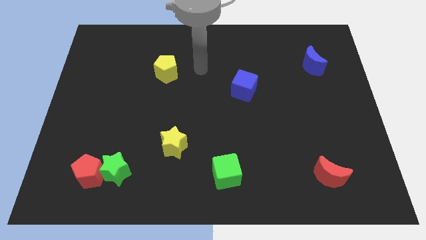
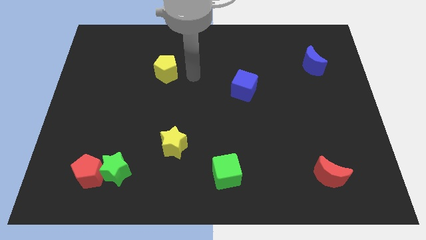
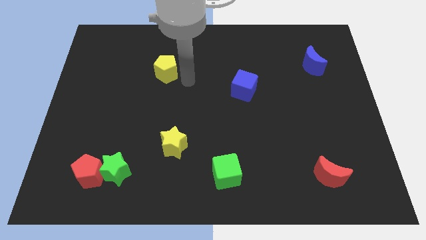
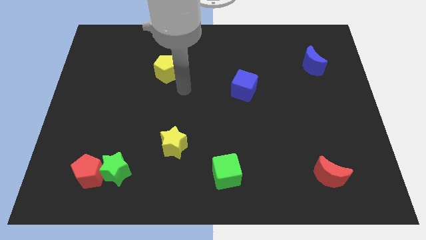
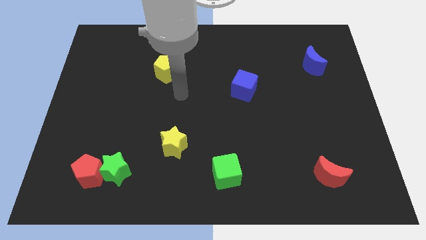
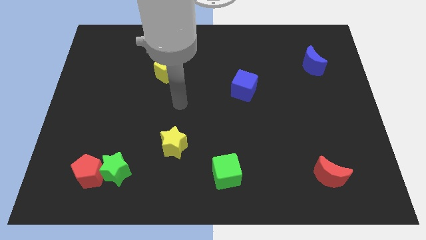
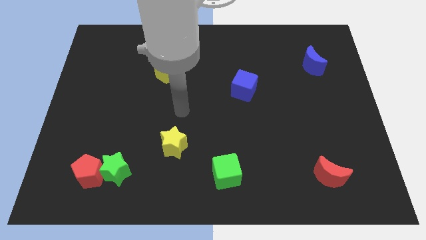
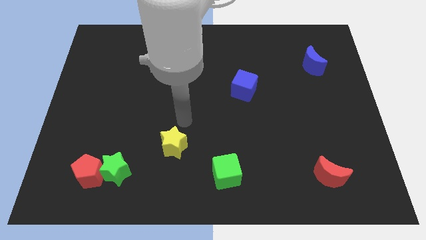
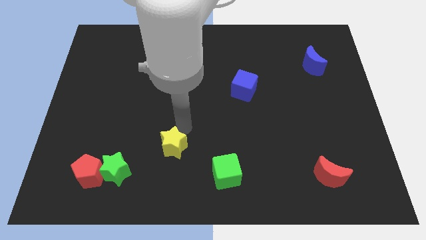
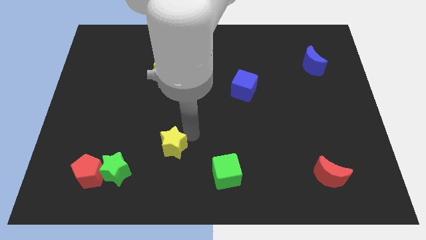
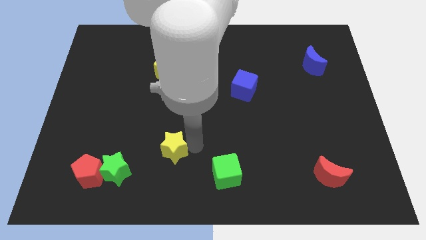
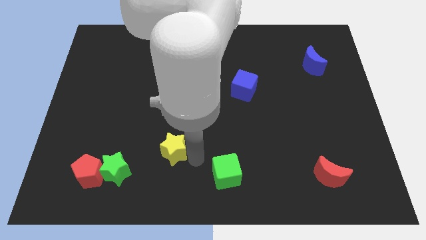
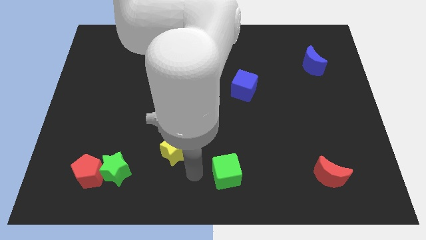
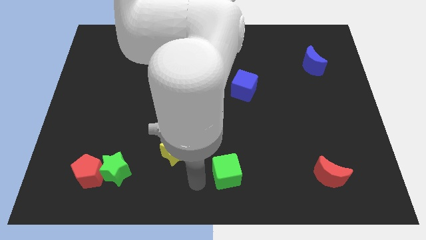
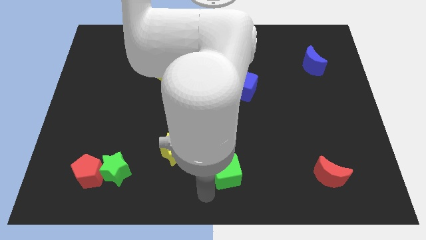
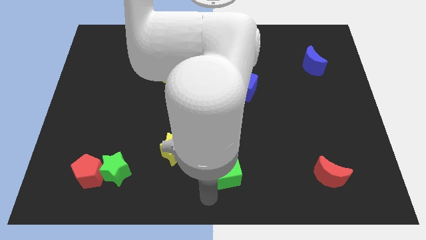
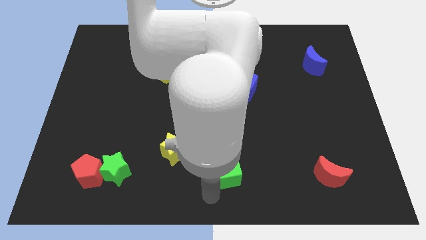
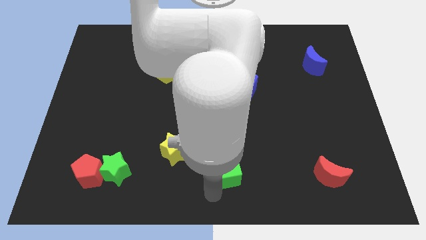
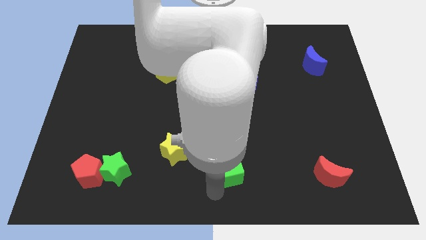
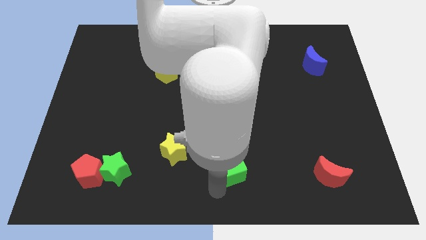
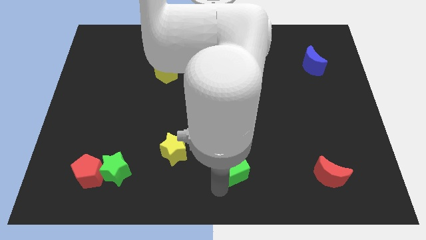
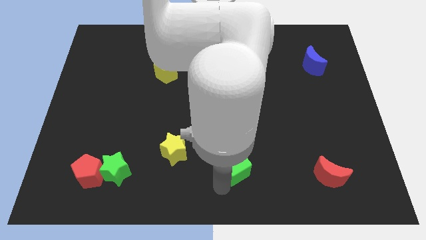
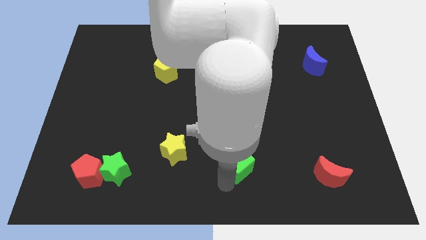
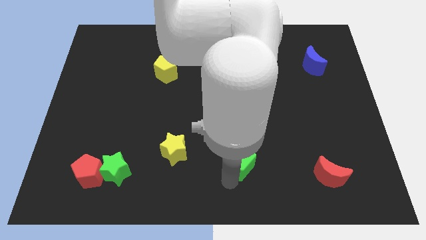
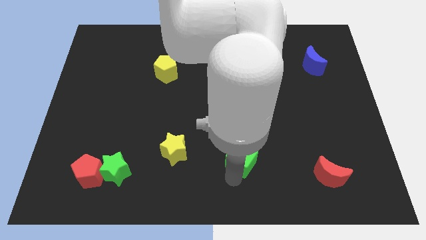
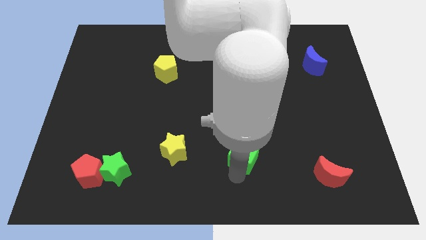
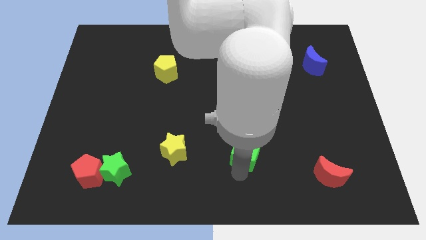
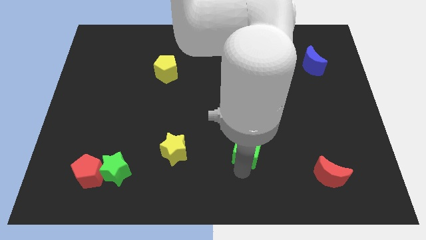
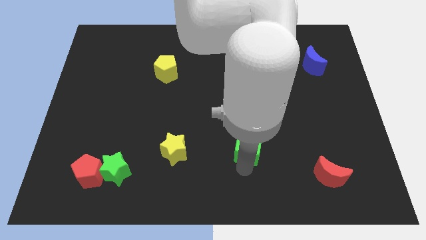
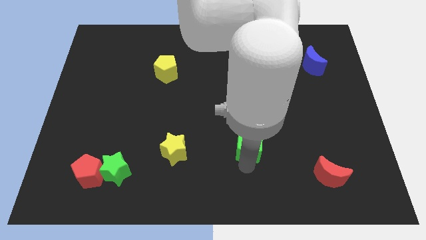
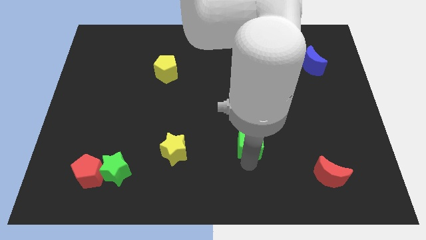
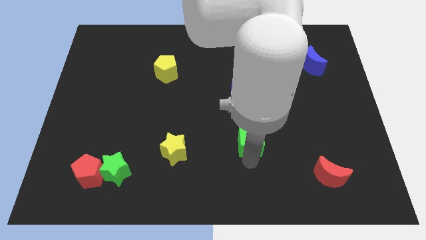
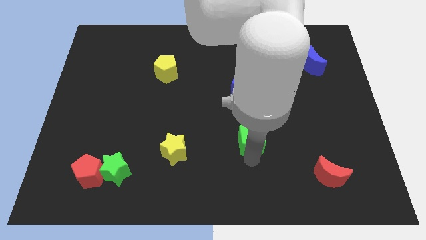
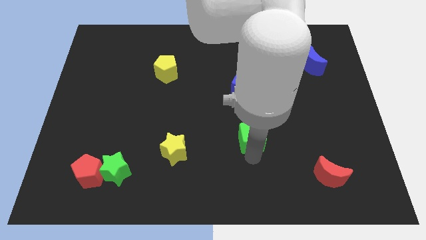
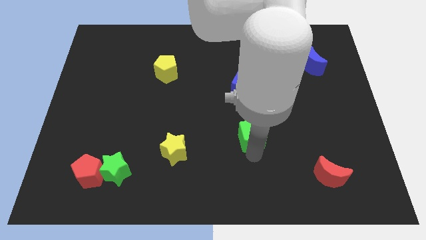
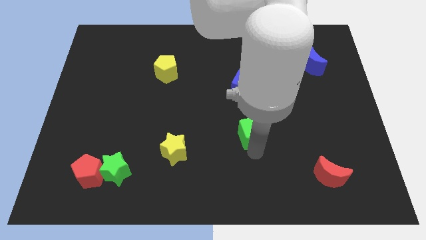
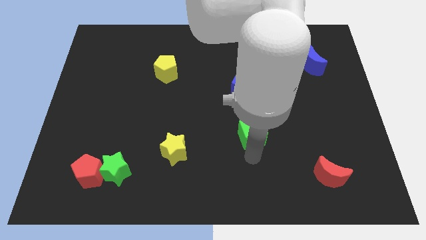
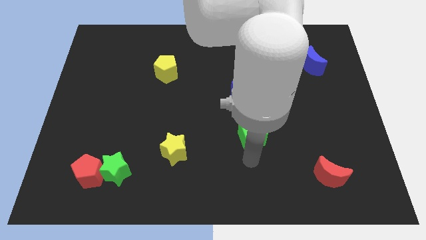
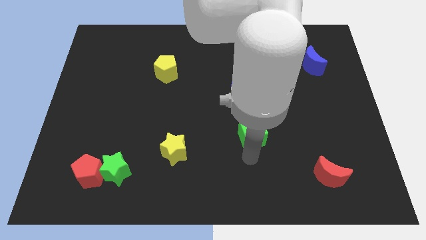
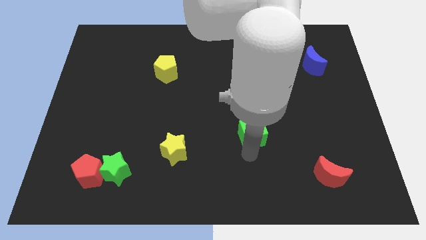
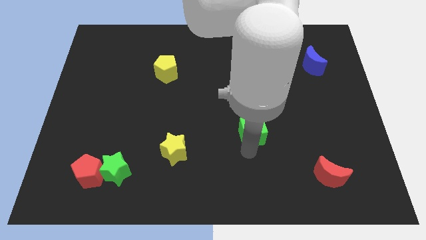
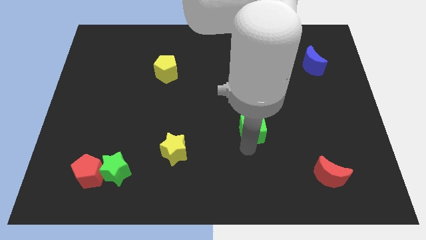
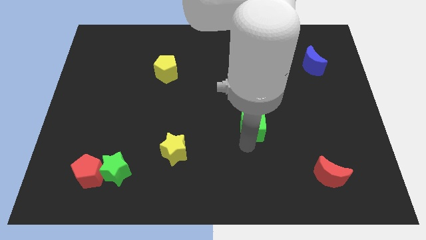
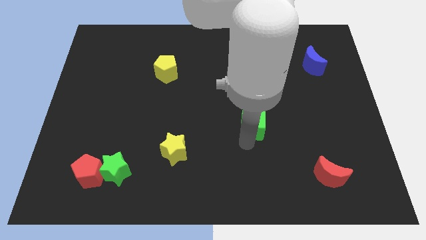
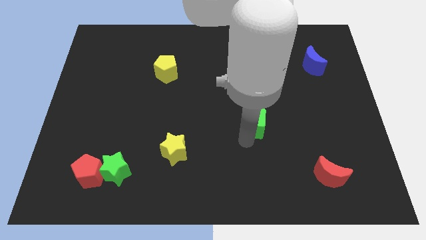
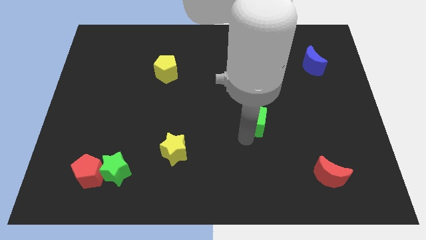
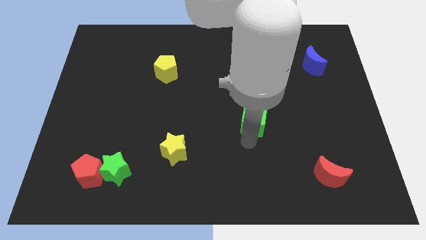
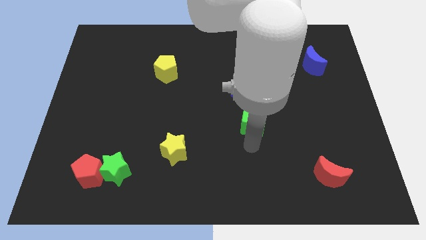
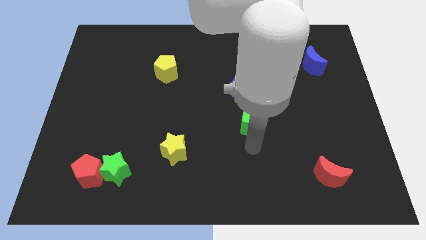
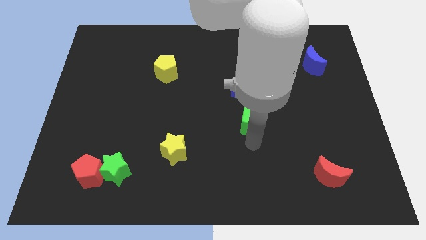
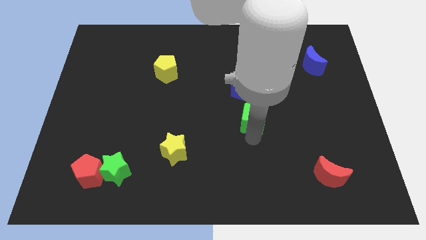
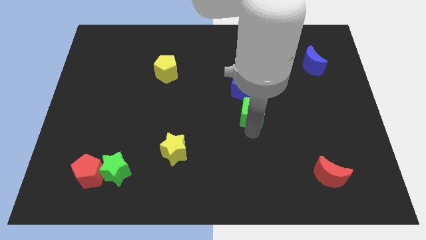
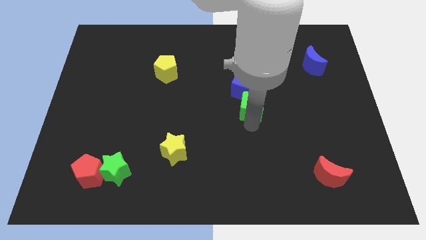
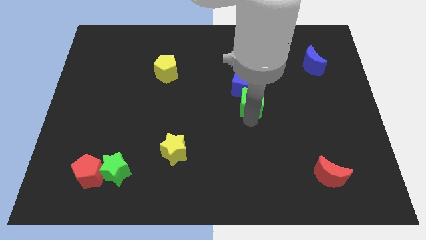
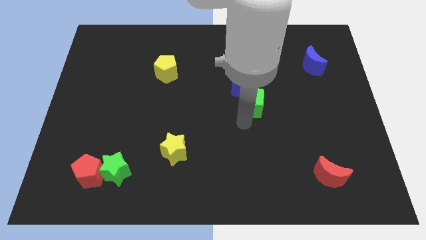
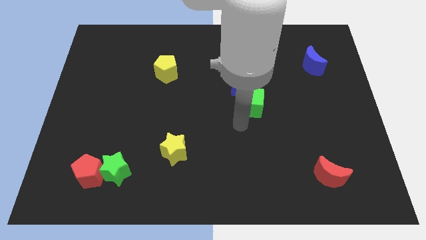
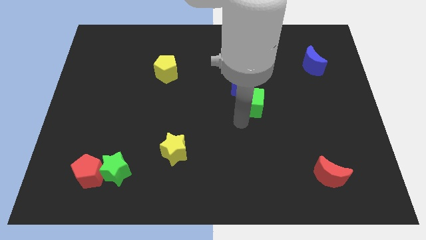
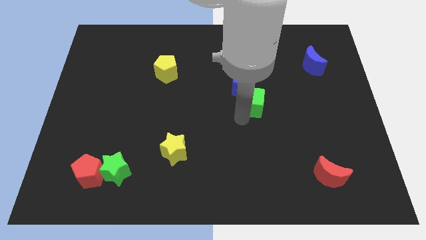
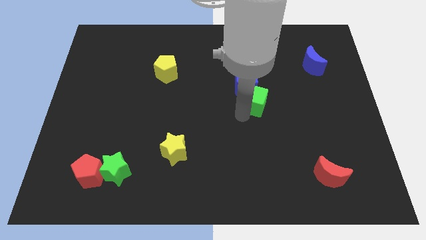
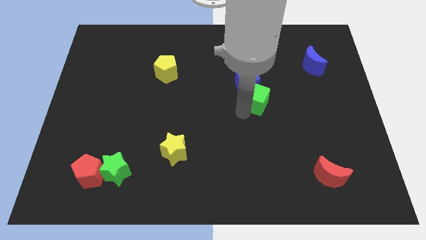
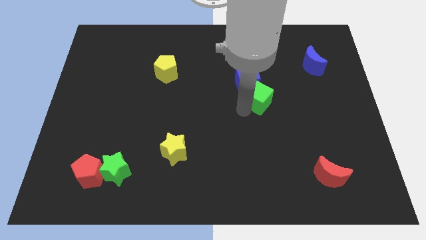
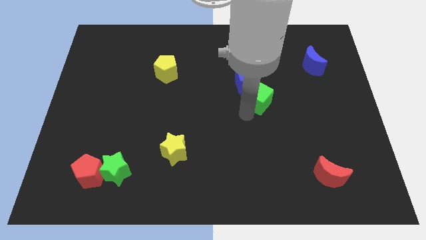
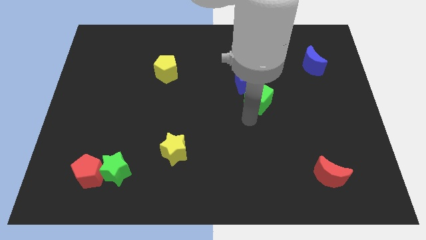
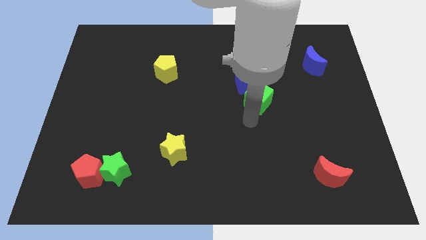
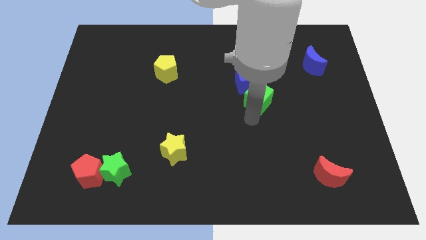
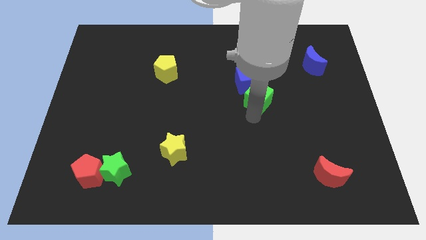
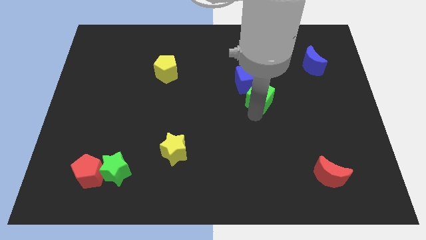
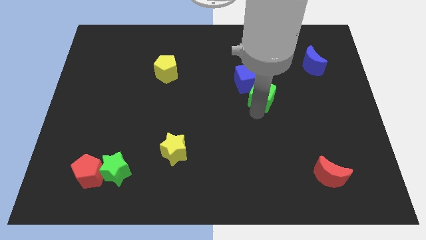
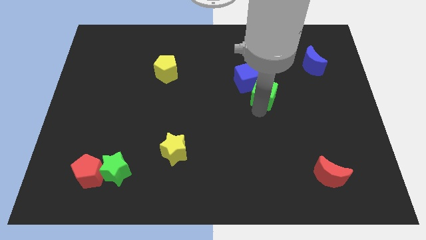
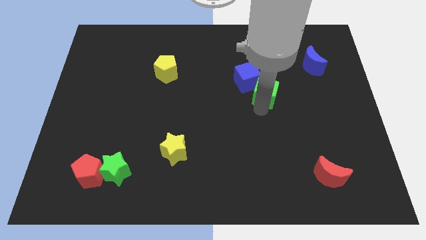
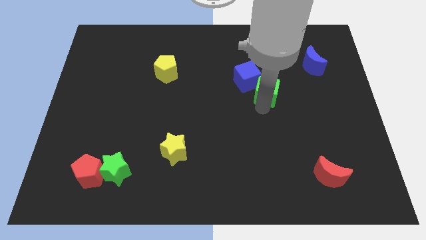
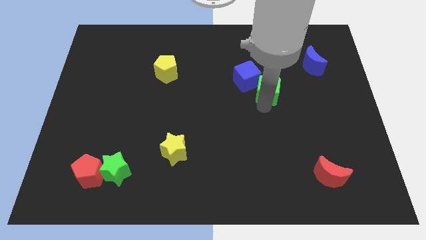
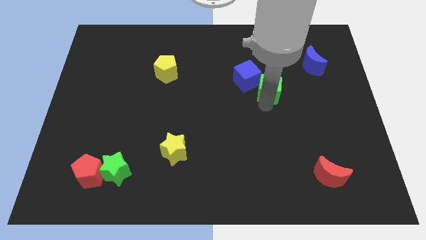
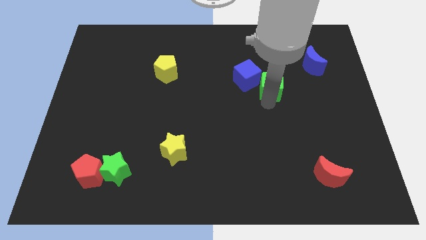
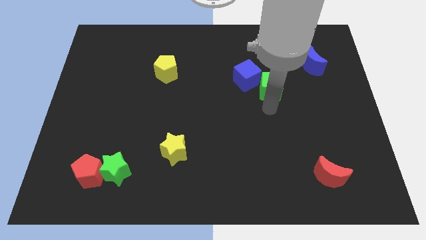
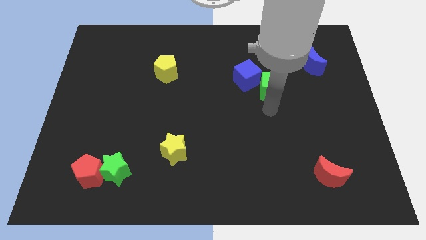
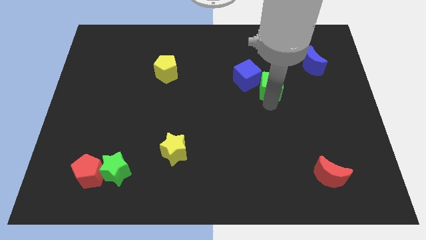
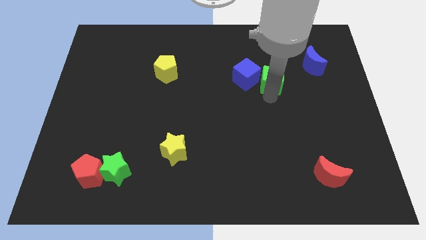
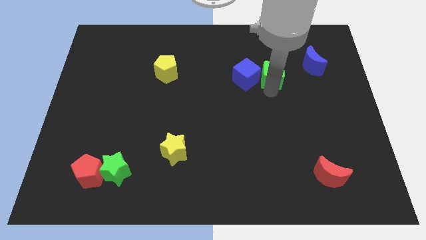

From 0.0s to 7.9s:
push the green cube just left of the blue moon
